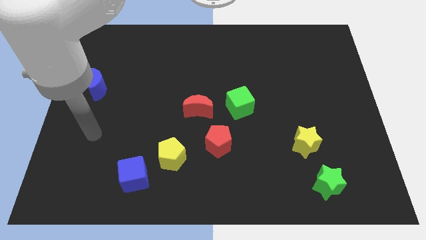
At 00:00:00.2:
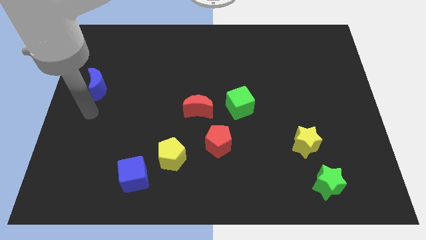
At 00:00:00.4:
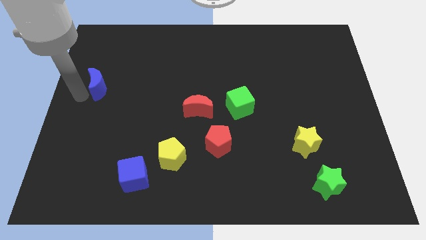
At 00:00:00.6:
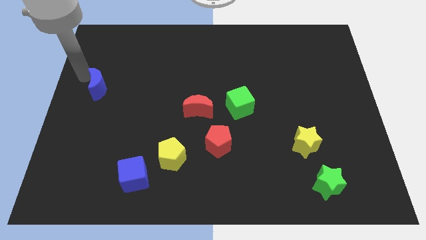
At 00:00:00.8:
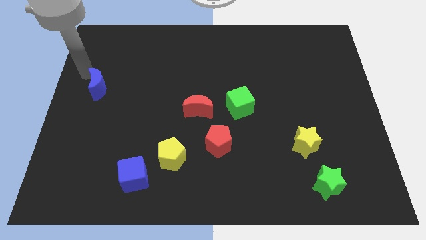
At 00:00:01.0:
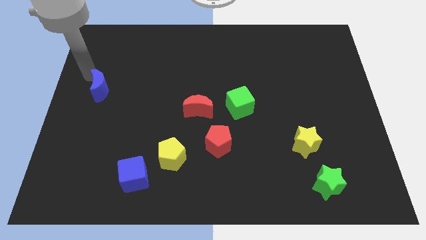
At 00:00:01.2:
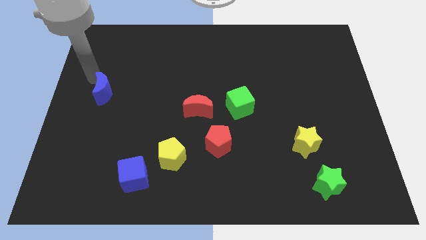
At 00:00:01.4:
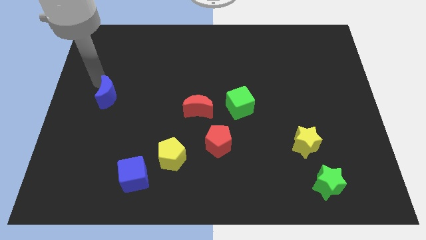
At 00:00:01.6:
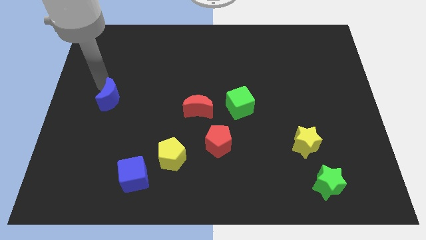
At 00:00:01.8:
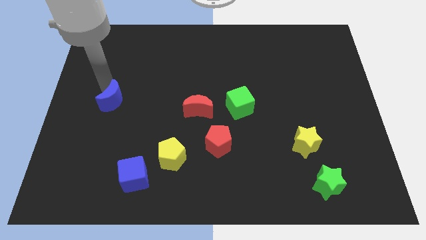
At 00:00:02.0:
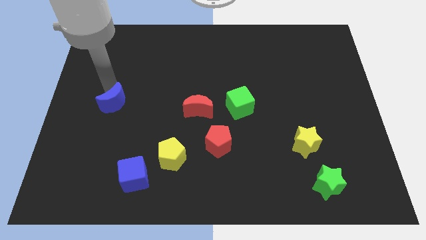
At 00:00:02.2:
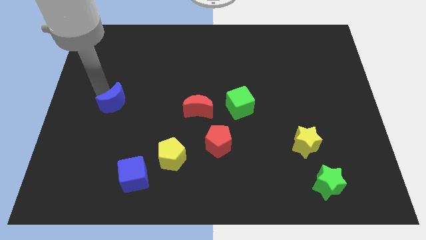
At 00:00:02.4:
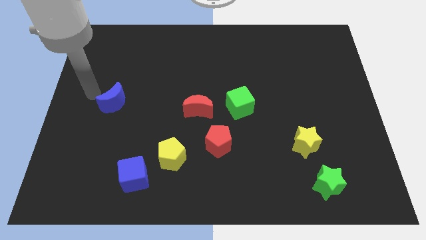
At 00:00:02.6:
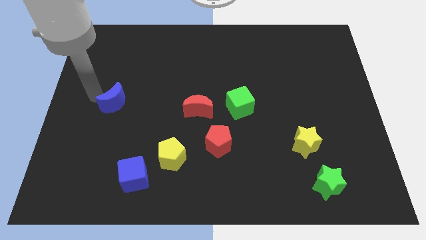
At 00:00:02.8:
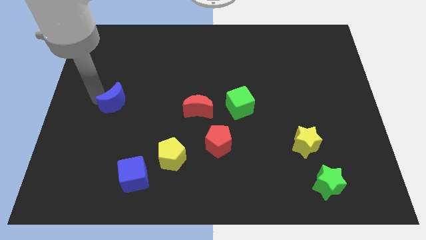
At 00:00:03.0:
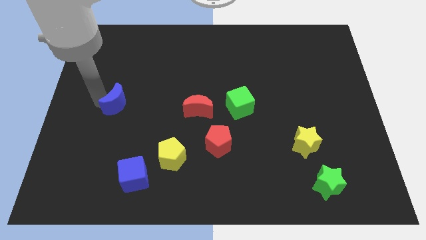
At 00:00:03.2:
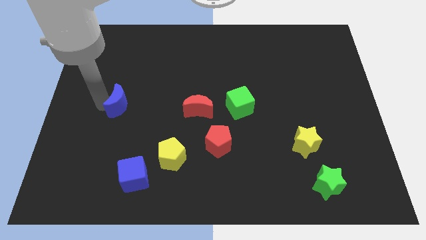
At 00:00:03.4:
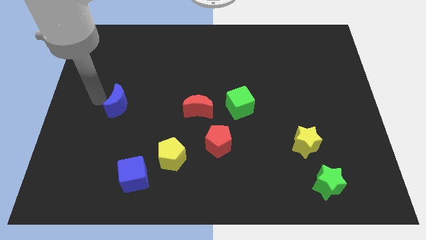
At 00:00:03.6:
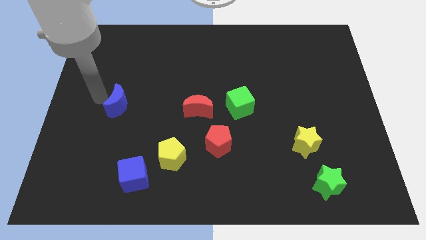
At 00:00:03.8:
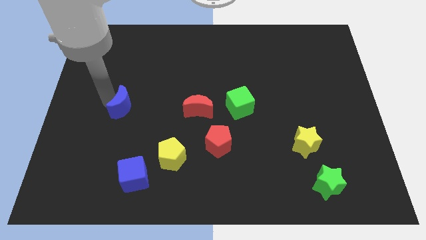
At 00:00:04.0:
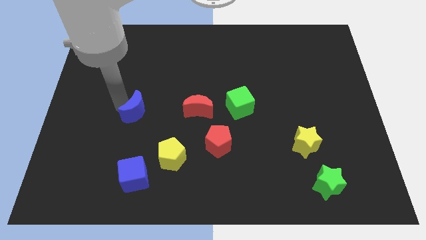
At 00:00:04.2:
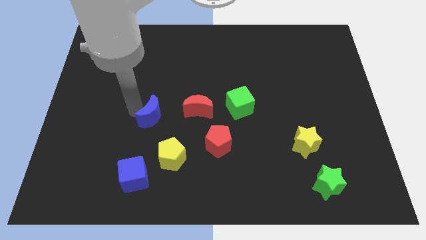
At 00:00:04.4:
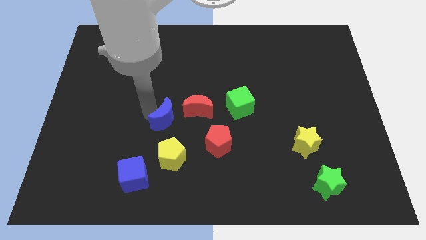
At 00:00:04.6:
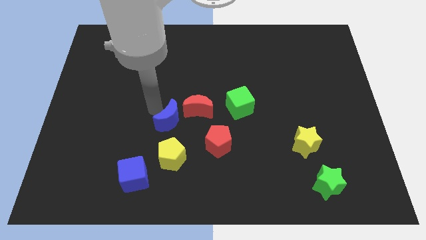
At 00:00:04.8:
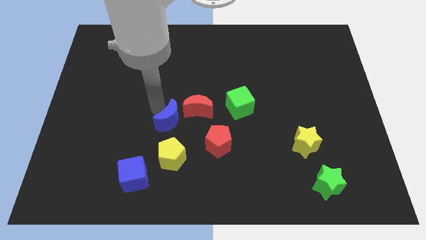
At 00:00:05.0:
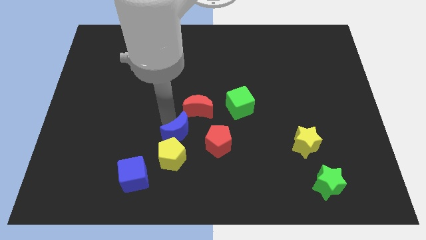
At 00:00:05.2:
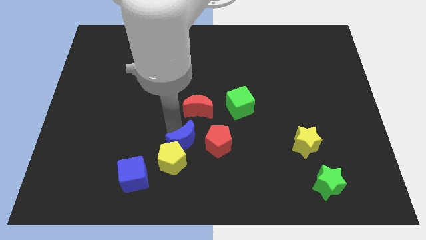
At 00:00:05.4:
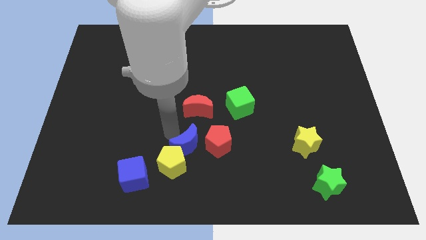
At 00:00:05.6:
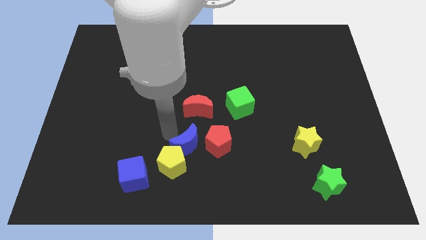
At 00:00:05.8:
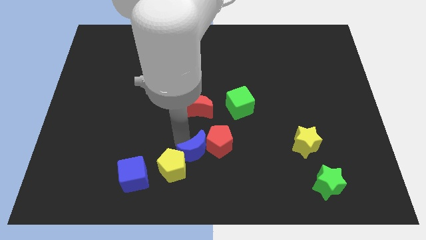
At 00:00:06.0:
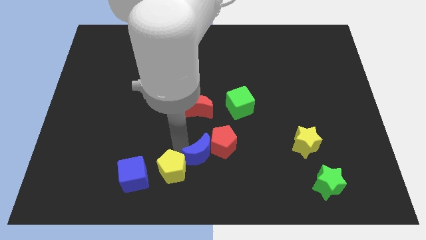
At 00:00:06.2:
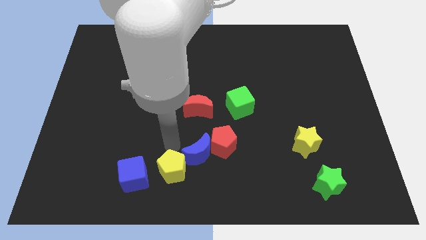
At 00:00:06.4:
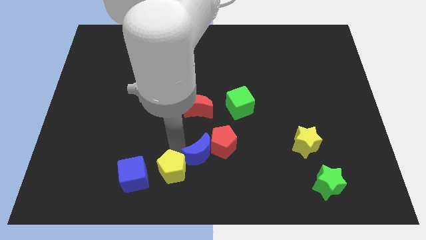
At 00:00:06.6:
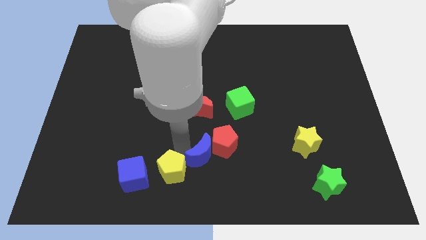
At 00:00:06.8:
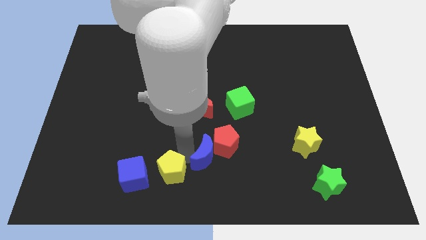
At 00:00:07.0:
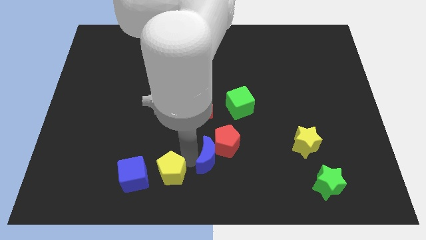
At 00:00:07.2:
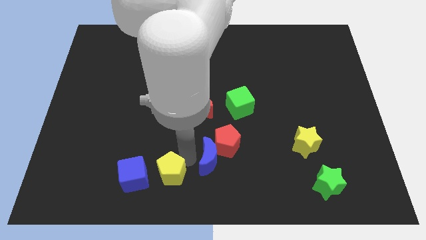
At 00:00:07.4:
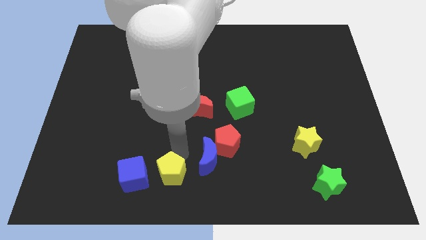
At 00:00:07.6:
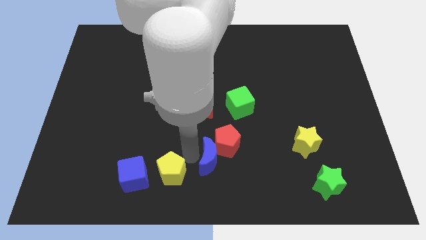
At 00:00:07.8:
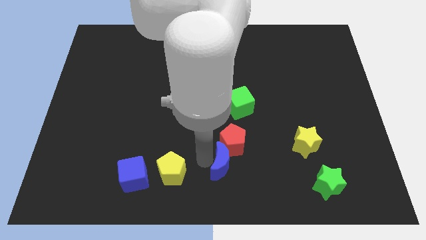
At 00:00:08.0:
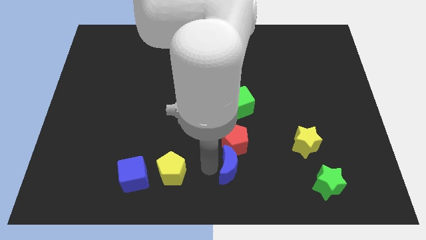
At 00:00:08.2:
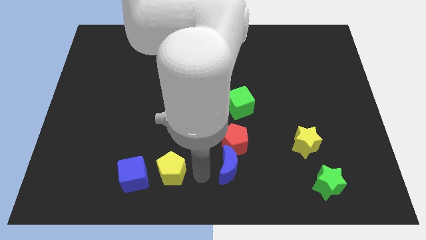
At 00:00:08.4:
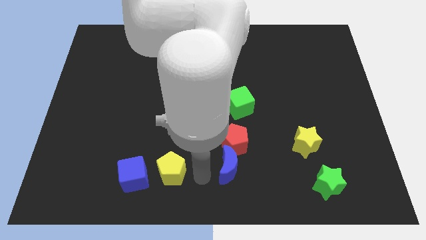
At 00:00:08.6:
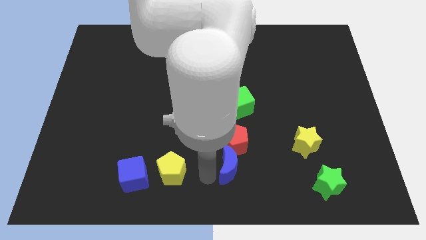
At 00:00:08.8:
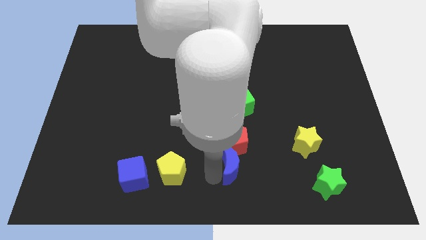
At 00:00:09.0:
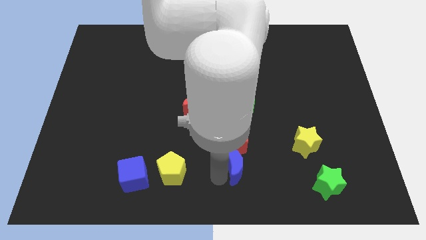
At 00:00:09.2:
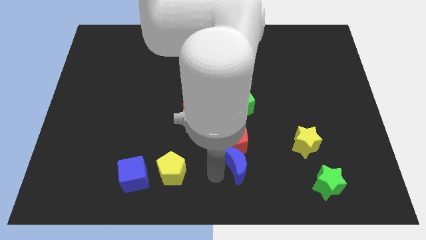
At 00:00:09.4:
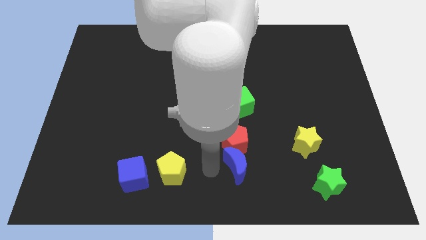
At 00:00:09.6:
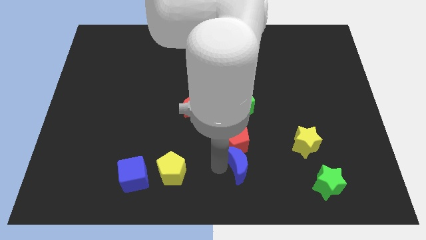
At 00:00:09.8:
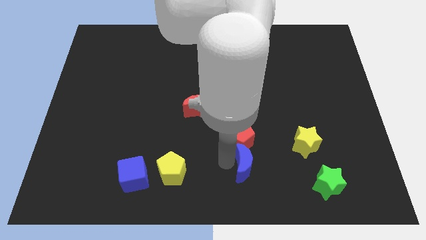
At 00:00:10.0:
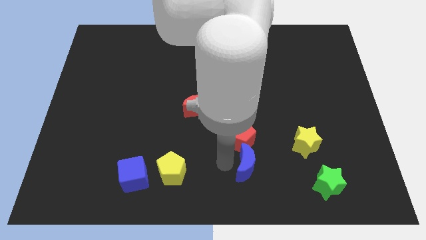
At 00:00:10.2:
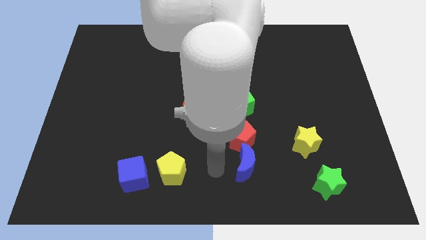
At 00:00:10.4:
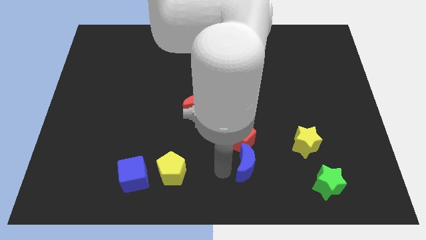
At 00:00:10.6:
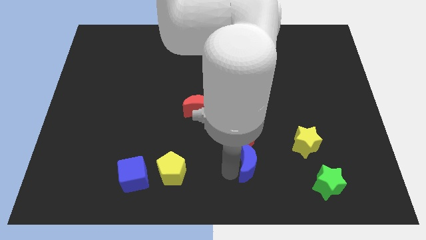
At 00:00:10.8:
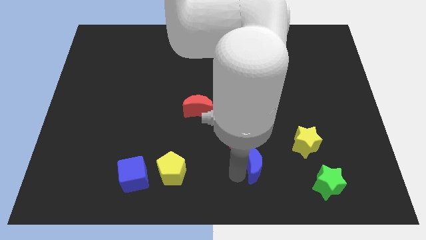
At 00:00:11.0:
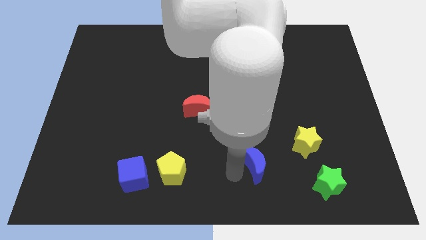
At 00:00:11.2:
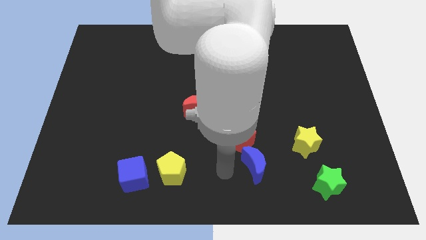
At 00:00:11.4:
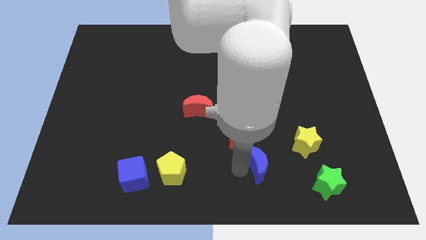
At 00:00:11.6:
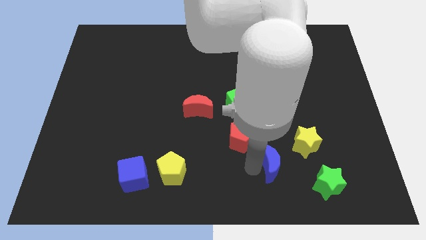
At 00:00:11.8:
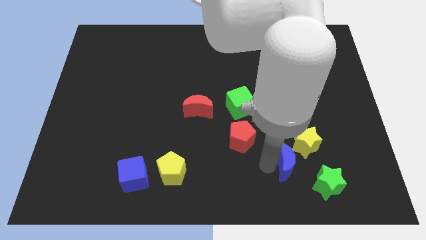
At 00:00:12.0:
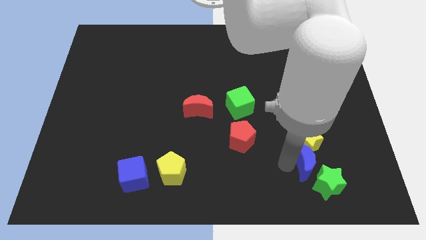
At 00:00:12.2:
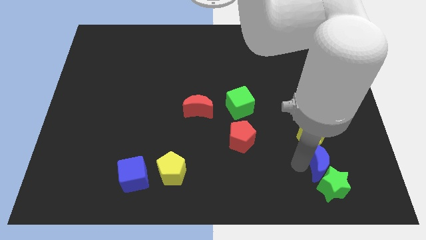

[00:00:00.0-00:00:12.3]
push the blue moon diagonally up and to the right of the green star
